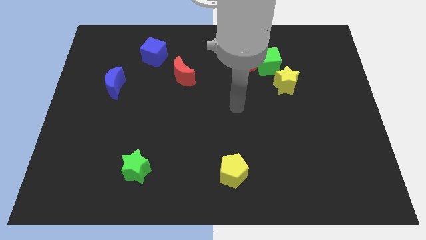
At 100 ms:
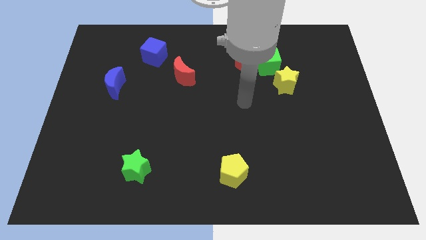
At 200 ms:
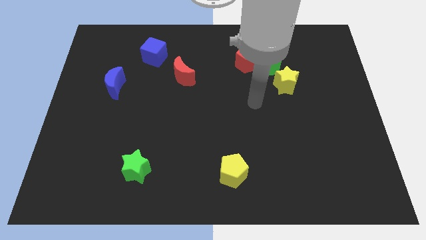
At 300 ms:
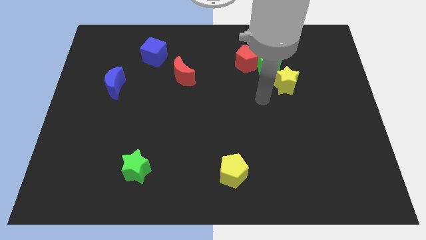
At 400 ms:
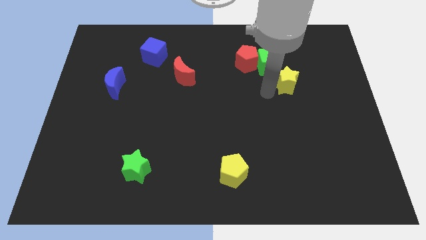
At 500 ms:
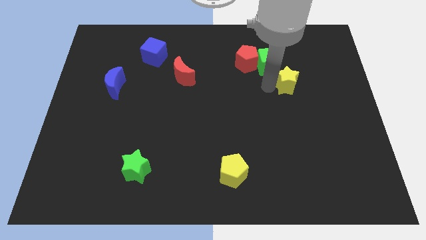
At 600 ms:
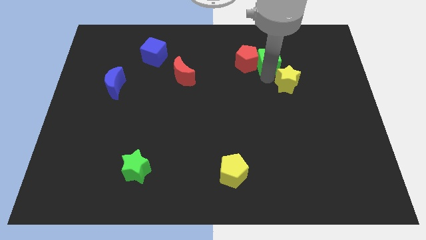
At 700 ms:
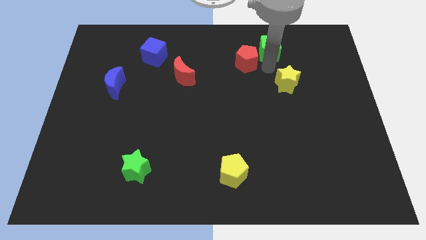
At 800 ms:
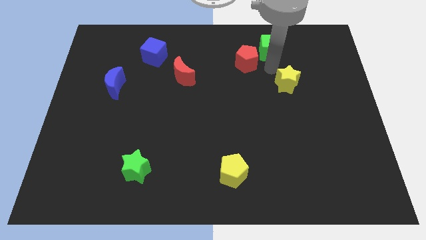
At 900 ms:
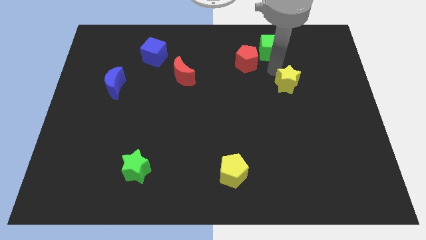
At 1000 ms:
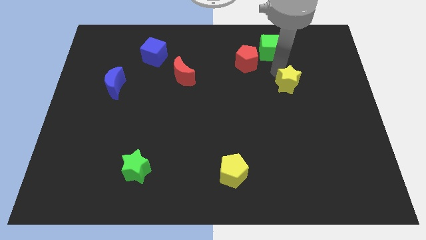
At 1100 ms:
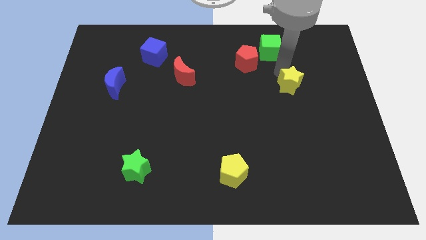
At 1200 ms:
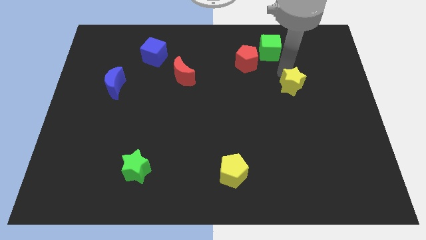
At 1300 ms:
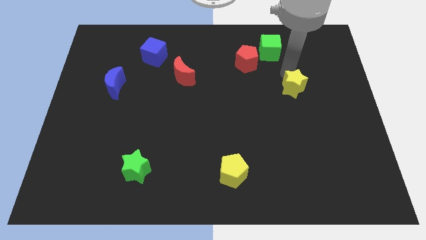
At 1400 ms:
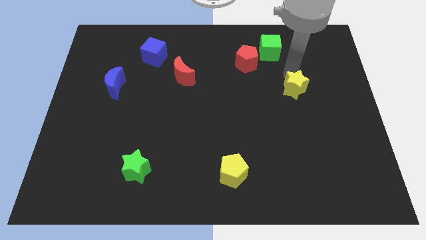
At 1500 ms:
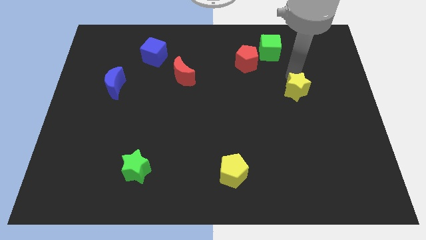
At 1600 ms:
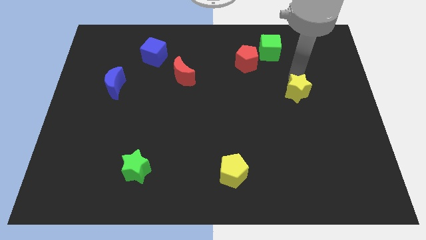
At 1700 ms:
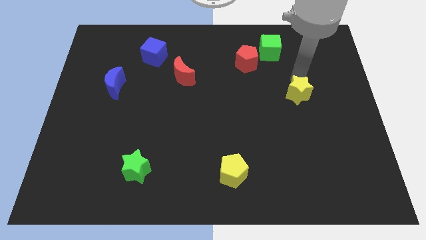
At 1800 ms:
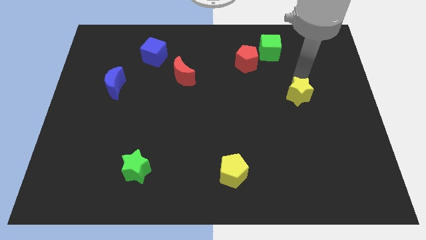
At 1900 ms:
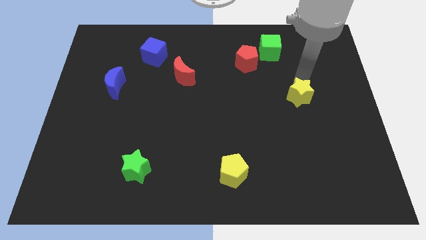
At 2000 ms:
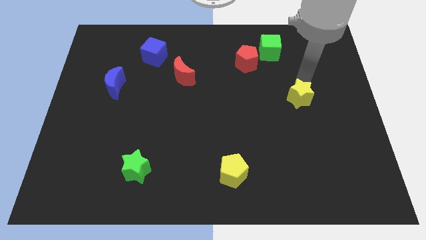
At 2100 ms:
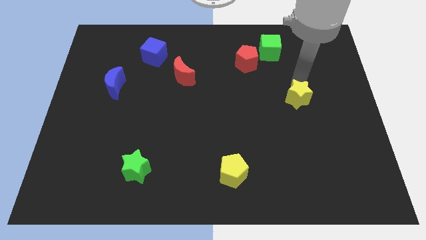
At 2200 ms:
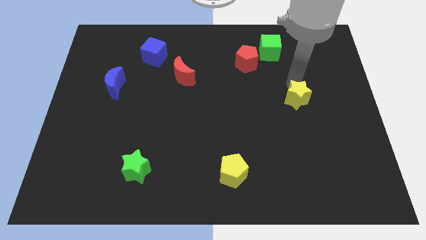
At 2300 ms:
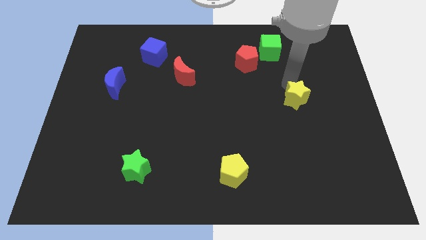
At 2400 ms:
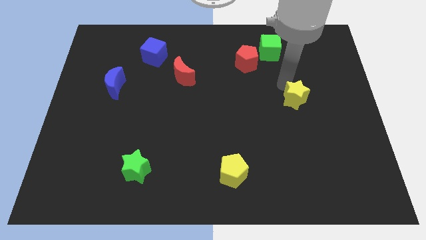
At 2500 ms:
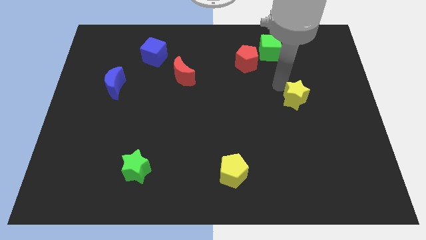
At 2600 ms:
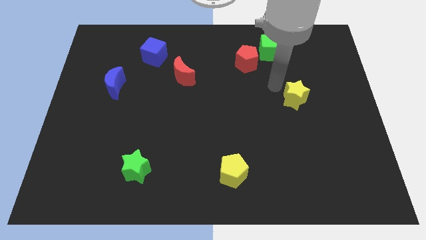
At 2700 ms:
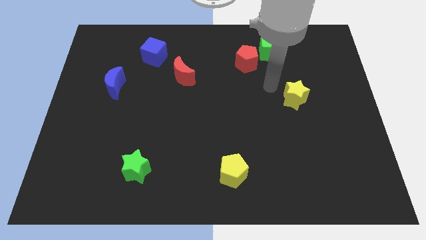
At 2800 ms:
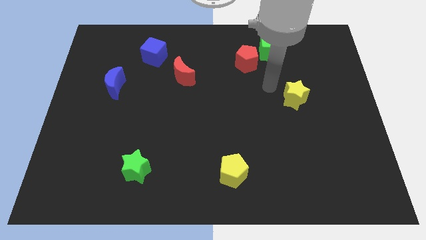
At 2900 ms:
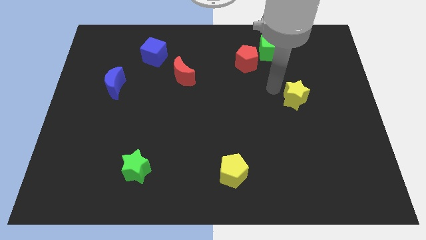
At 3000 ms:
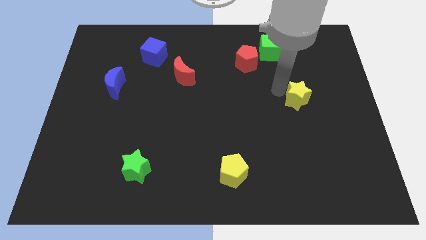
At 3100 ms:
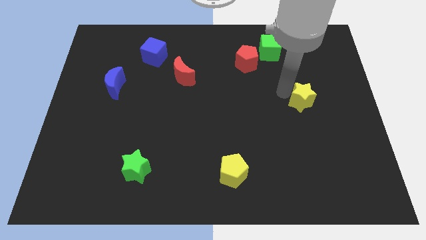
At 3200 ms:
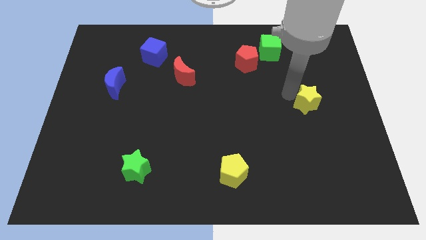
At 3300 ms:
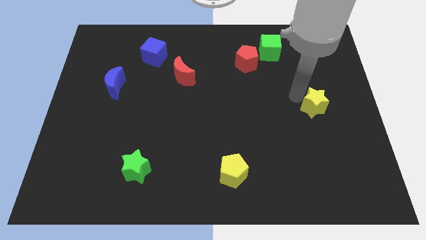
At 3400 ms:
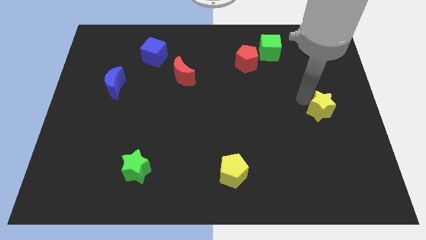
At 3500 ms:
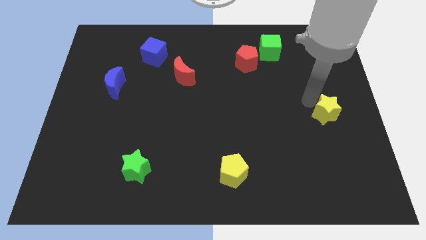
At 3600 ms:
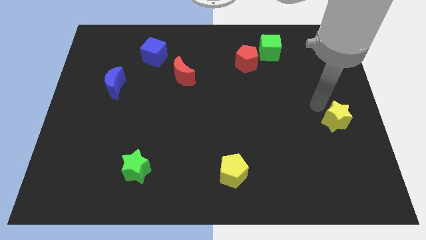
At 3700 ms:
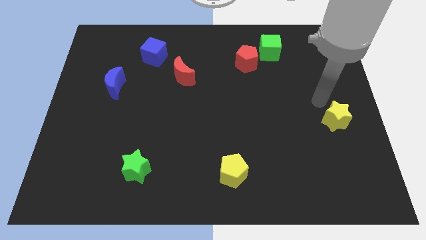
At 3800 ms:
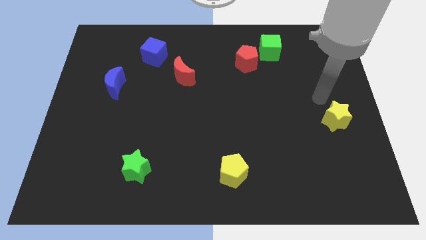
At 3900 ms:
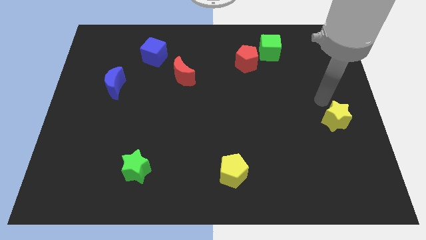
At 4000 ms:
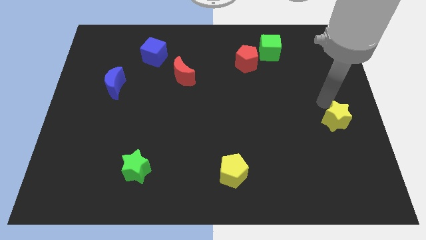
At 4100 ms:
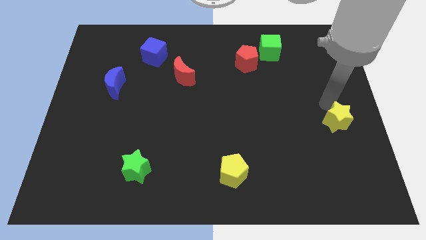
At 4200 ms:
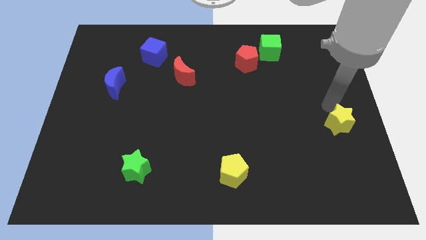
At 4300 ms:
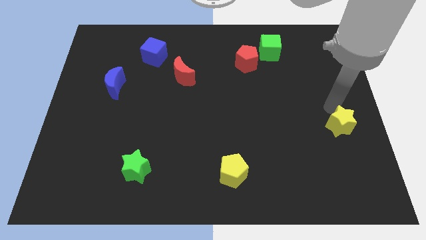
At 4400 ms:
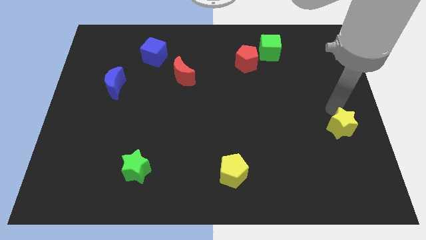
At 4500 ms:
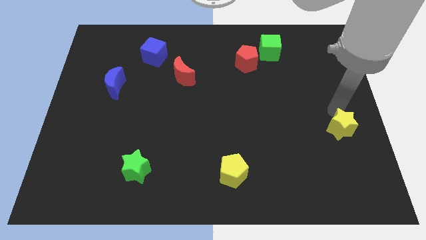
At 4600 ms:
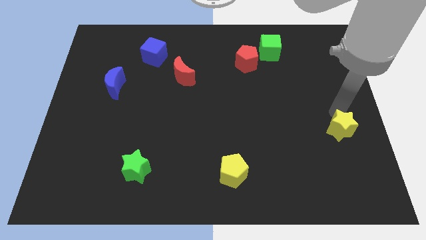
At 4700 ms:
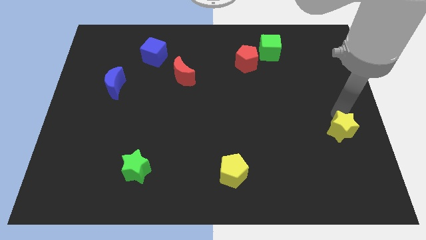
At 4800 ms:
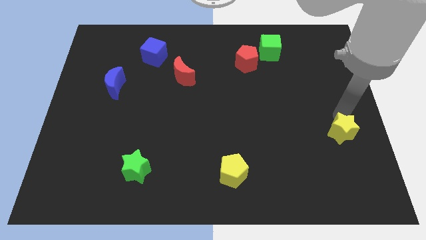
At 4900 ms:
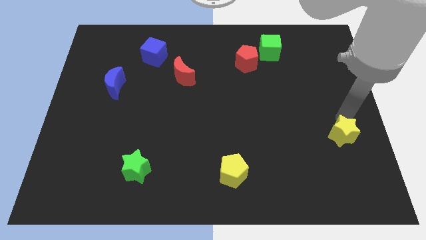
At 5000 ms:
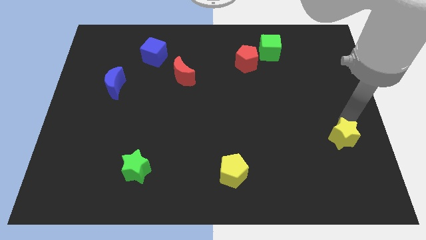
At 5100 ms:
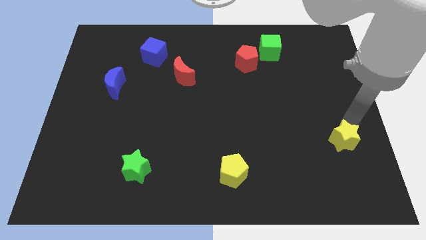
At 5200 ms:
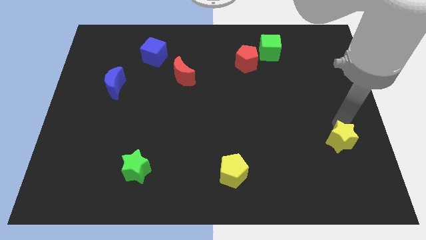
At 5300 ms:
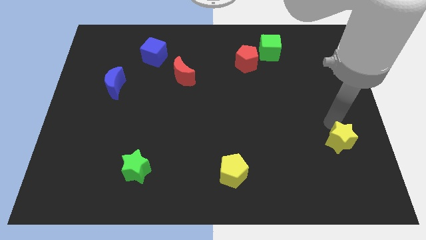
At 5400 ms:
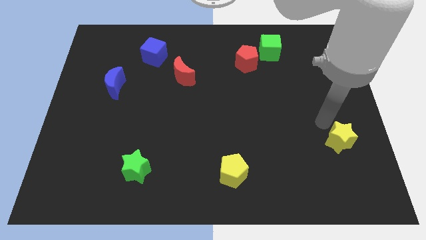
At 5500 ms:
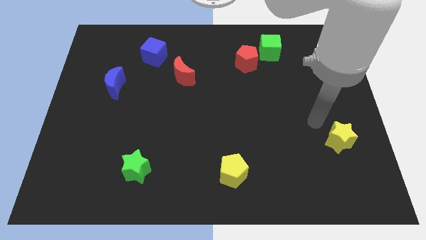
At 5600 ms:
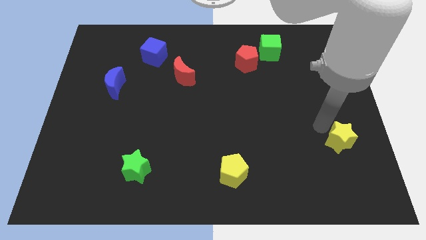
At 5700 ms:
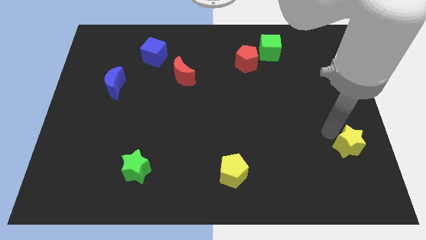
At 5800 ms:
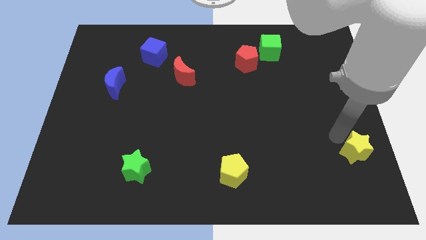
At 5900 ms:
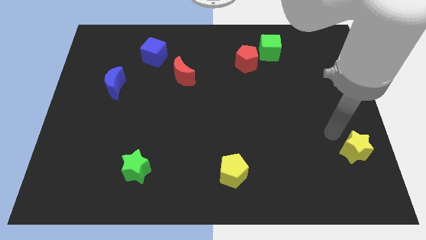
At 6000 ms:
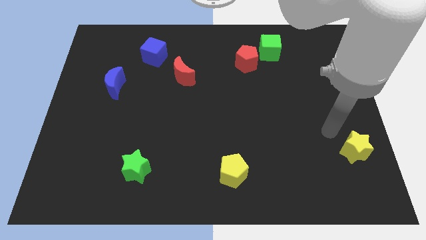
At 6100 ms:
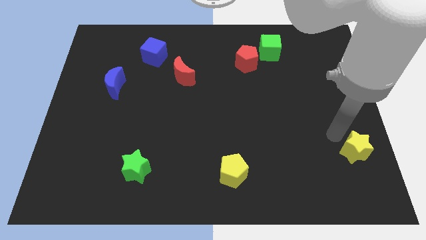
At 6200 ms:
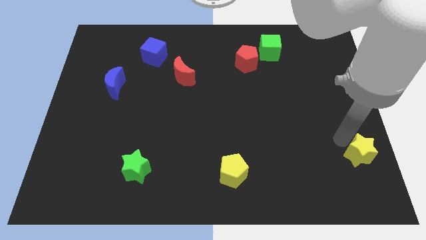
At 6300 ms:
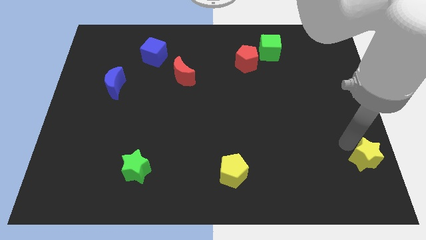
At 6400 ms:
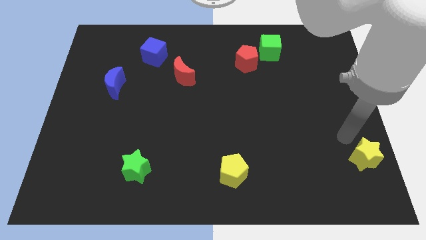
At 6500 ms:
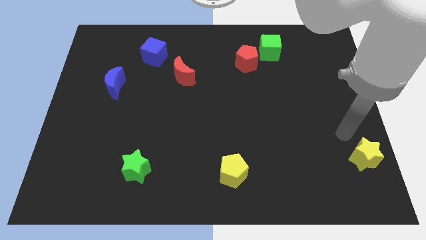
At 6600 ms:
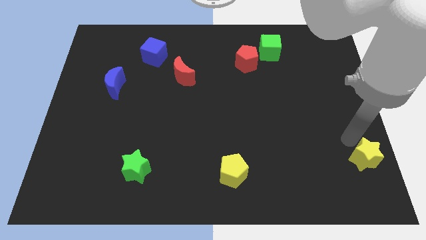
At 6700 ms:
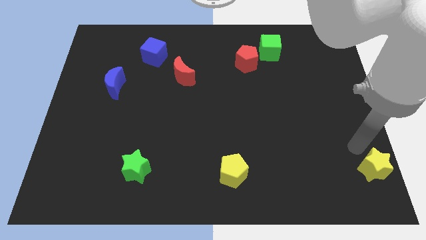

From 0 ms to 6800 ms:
push the yellow star to the lower right corner

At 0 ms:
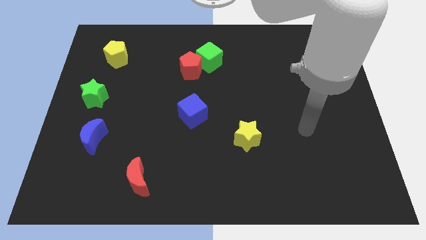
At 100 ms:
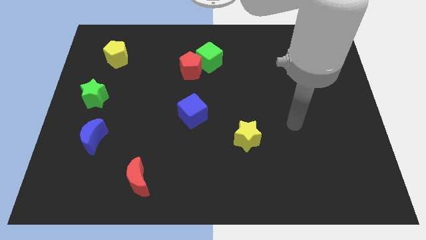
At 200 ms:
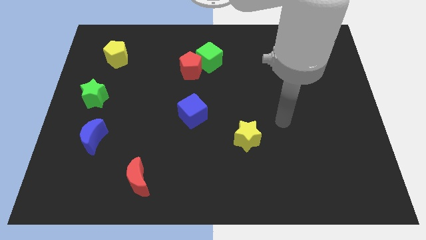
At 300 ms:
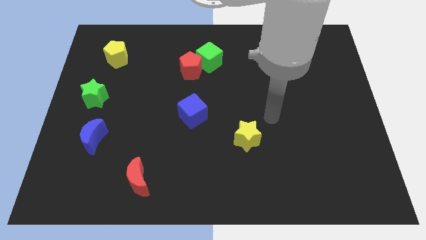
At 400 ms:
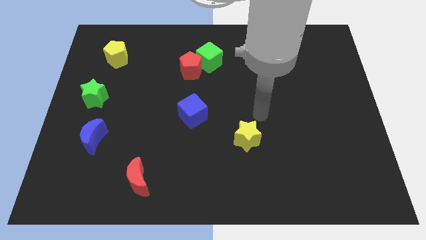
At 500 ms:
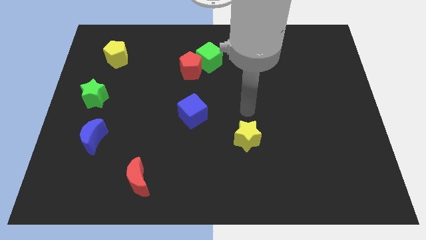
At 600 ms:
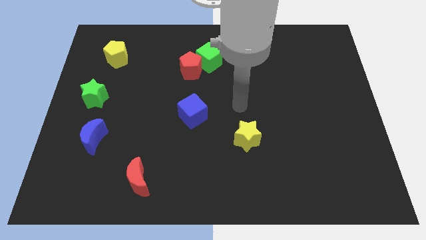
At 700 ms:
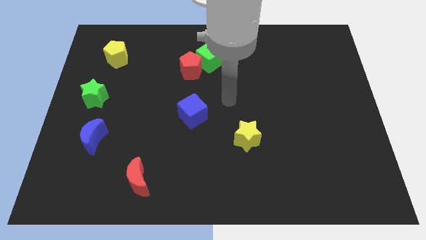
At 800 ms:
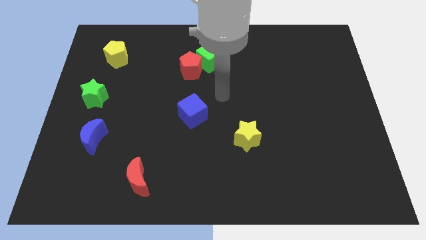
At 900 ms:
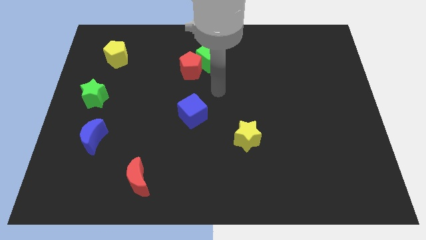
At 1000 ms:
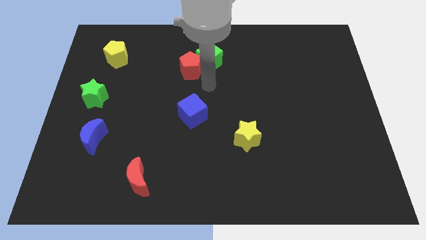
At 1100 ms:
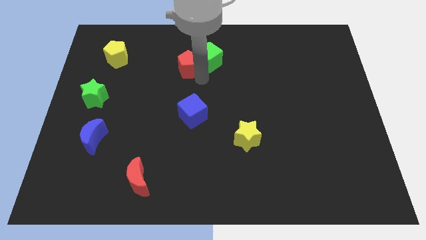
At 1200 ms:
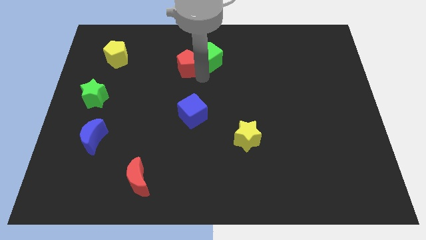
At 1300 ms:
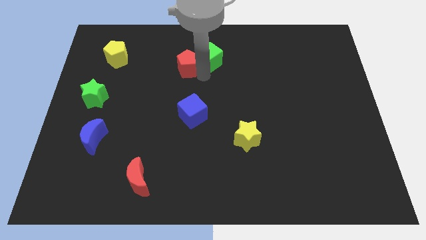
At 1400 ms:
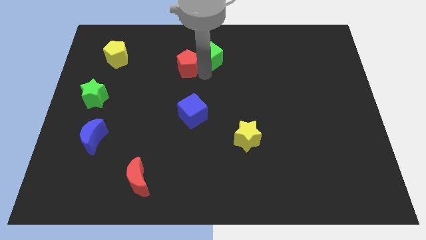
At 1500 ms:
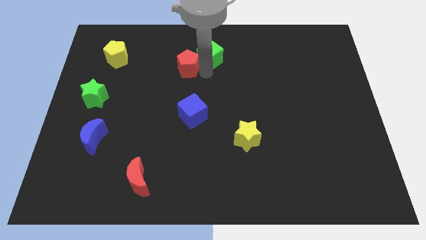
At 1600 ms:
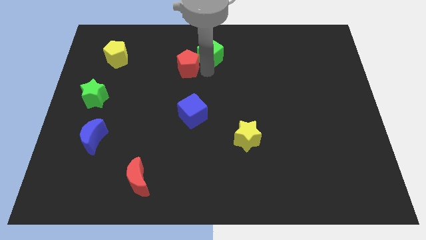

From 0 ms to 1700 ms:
move the green cube to the top side
